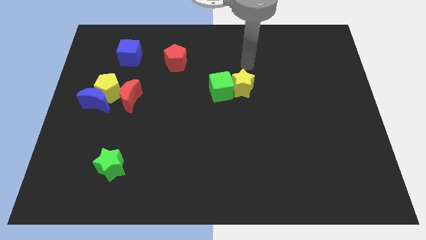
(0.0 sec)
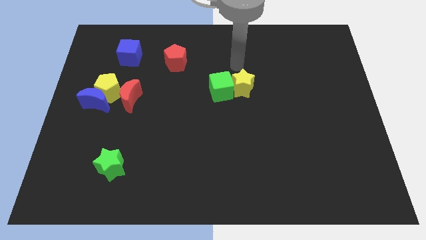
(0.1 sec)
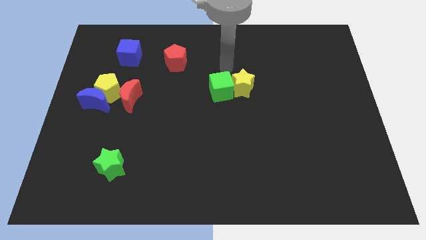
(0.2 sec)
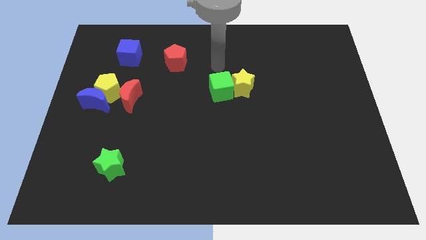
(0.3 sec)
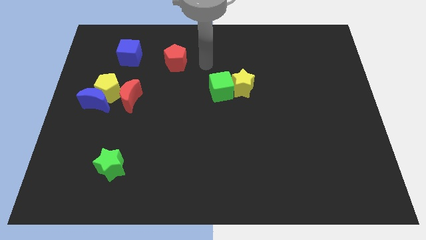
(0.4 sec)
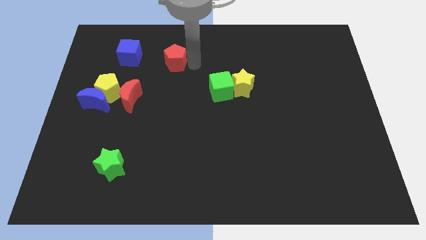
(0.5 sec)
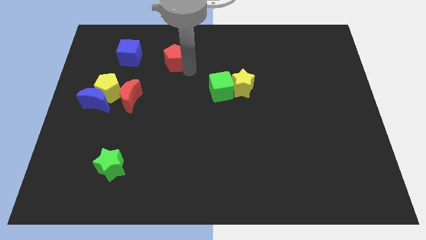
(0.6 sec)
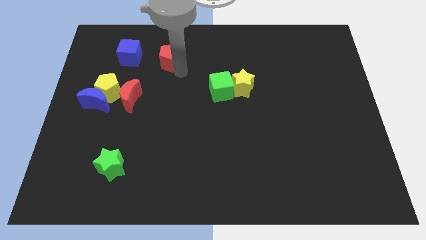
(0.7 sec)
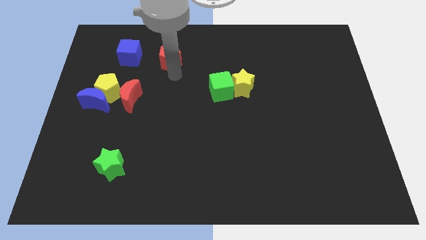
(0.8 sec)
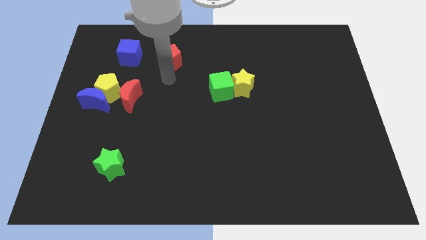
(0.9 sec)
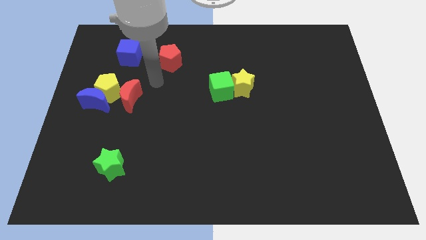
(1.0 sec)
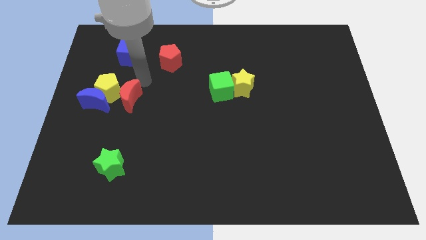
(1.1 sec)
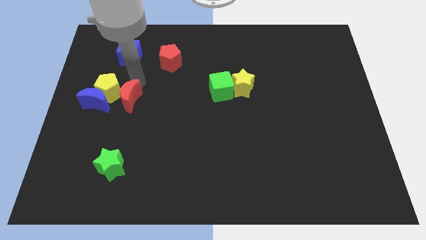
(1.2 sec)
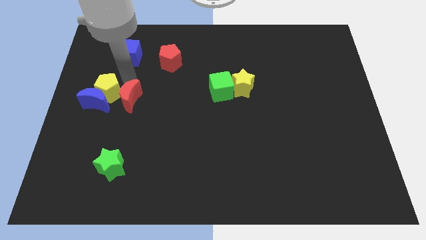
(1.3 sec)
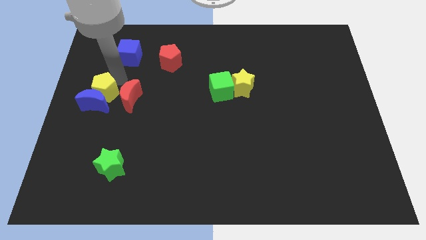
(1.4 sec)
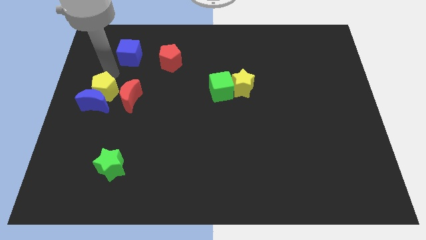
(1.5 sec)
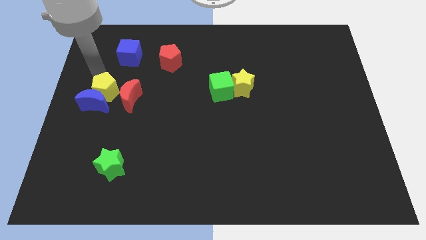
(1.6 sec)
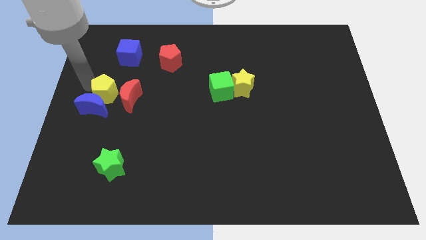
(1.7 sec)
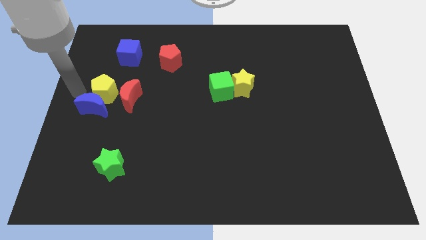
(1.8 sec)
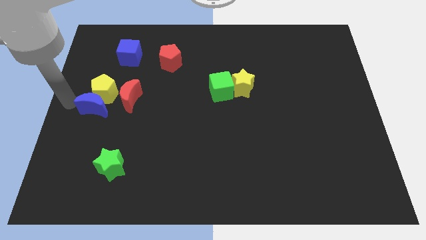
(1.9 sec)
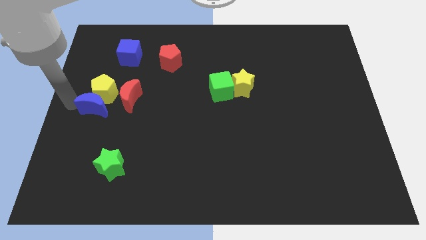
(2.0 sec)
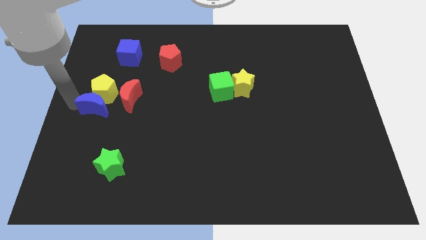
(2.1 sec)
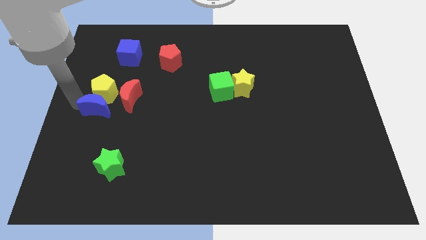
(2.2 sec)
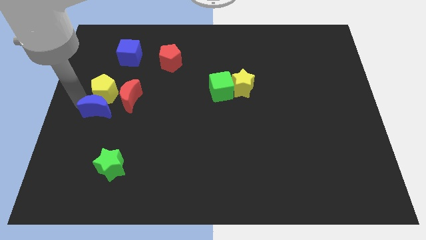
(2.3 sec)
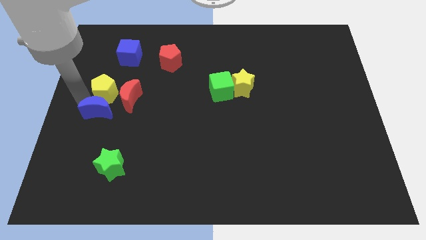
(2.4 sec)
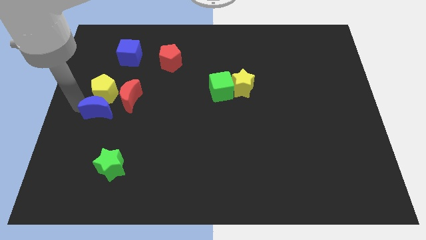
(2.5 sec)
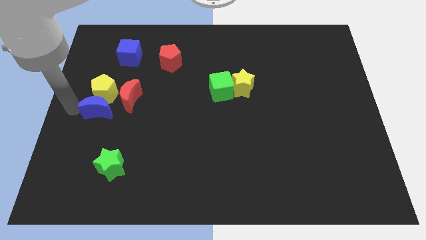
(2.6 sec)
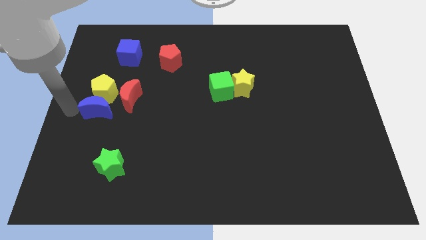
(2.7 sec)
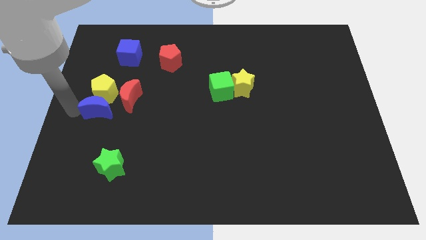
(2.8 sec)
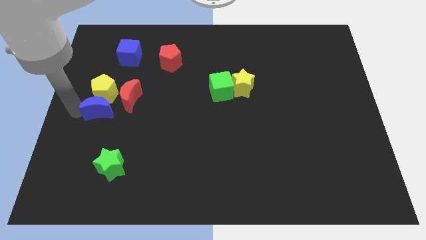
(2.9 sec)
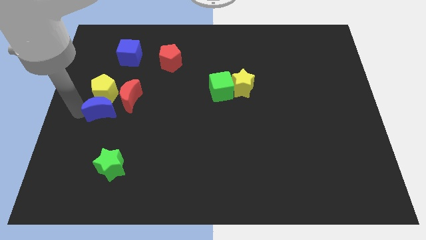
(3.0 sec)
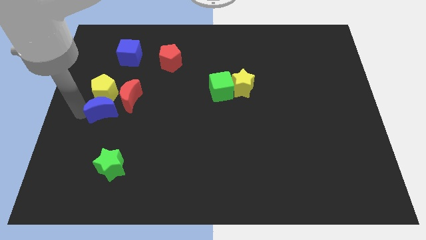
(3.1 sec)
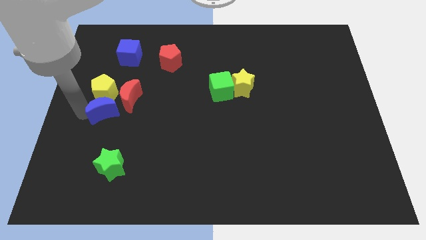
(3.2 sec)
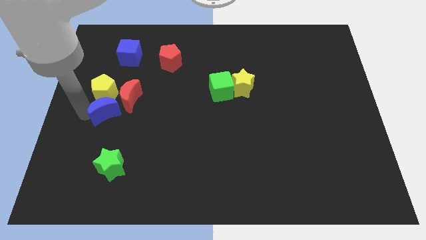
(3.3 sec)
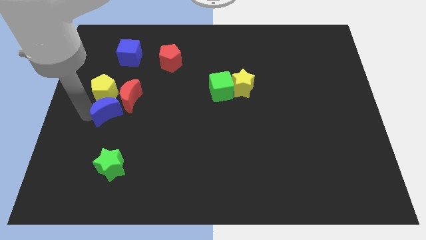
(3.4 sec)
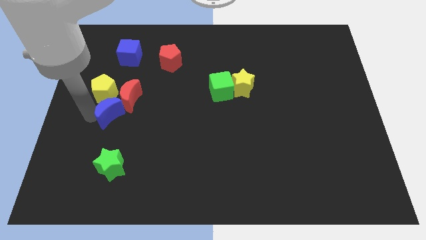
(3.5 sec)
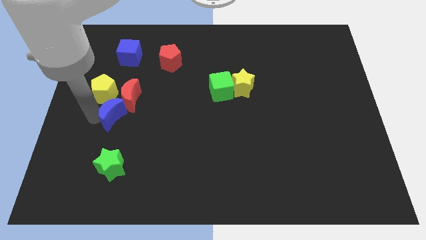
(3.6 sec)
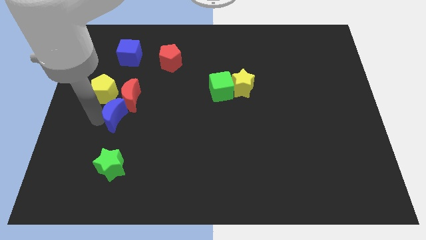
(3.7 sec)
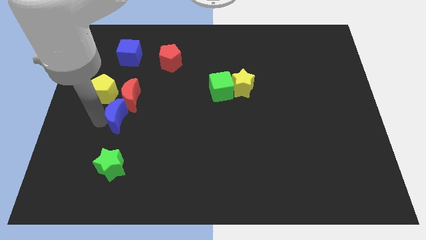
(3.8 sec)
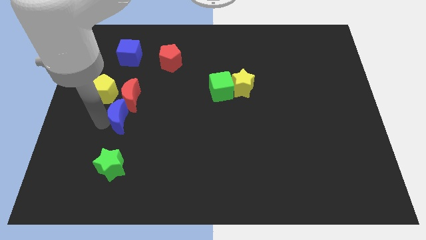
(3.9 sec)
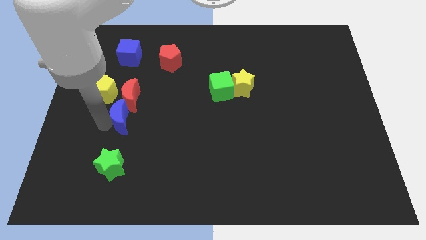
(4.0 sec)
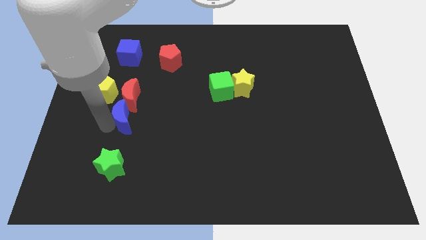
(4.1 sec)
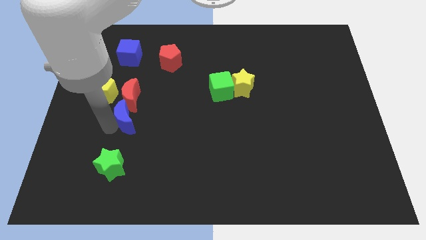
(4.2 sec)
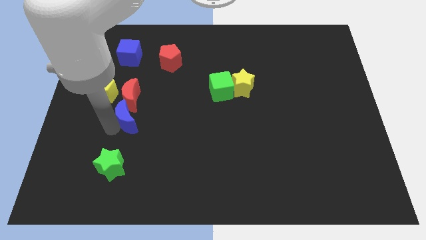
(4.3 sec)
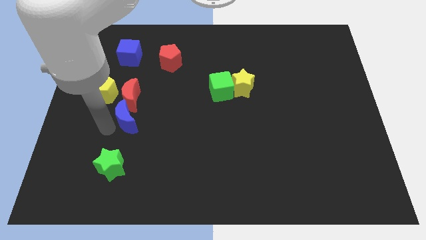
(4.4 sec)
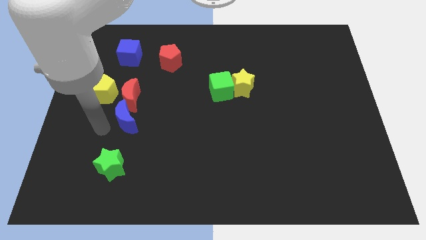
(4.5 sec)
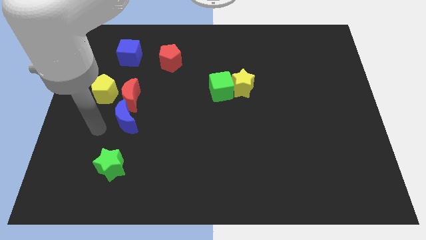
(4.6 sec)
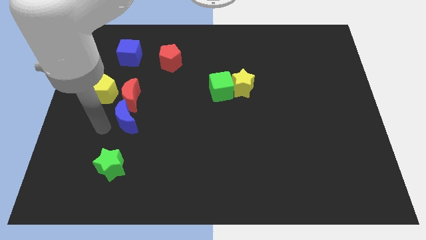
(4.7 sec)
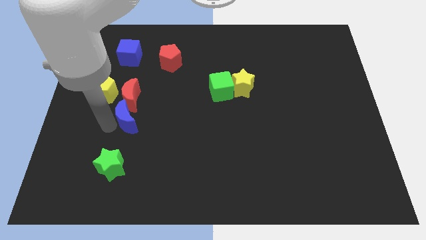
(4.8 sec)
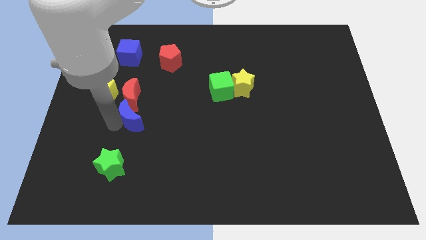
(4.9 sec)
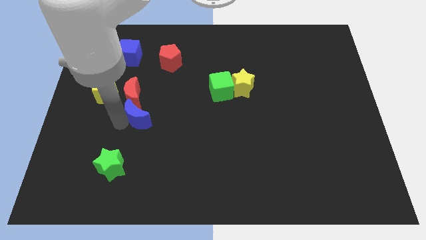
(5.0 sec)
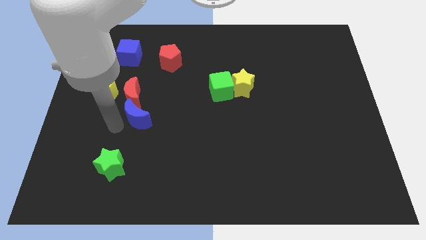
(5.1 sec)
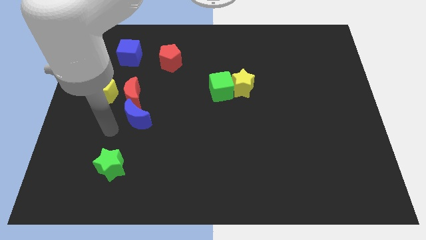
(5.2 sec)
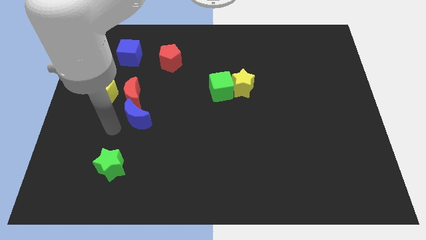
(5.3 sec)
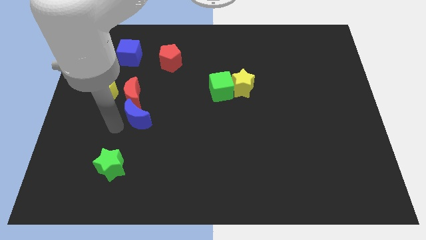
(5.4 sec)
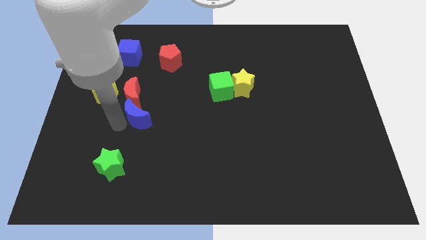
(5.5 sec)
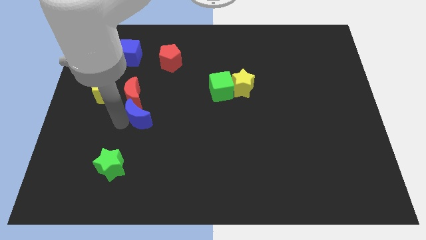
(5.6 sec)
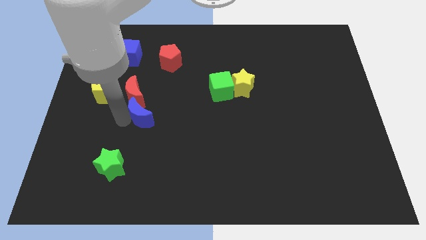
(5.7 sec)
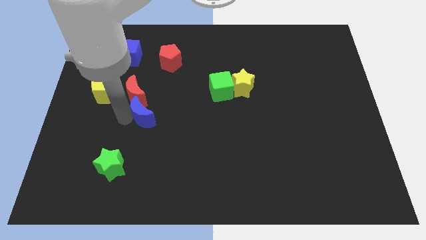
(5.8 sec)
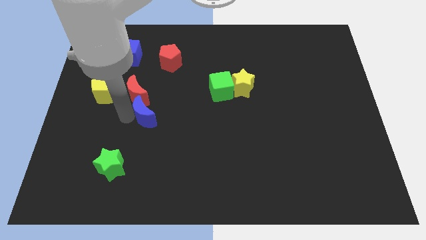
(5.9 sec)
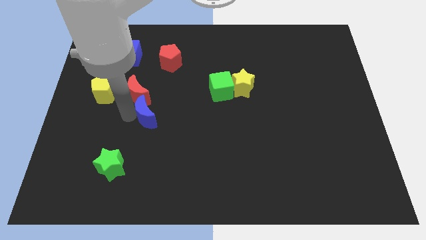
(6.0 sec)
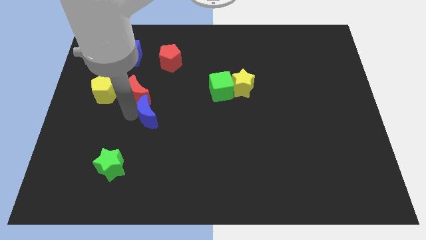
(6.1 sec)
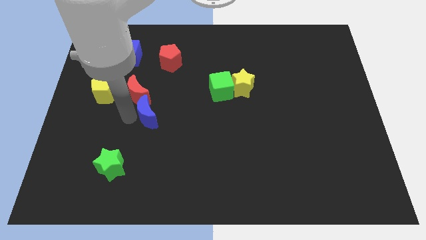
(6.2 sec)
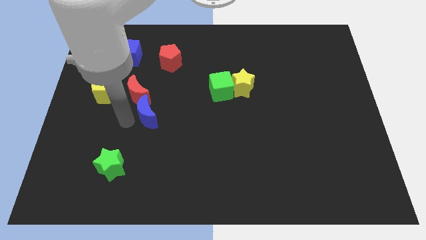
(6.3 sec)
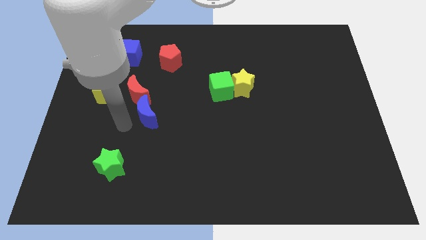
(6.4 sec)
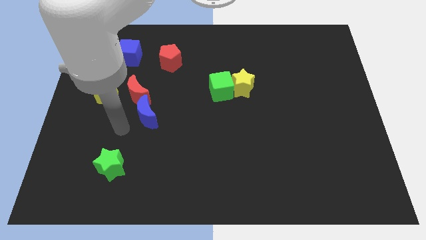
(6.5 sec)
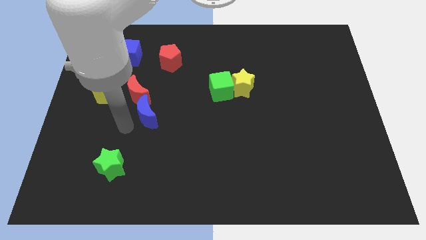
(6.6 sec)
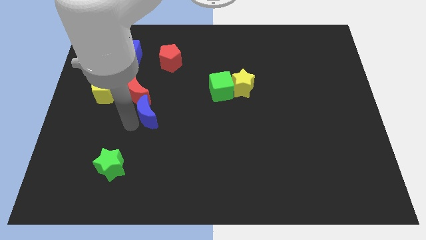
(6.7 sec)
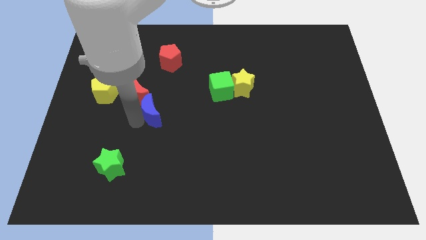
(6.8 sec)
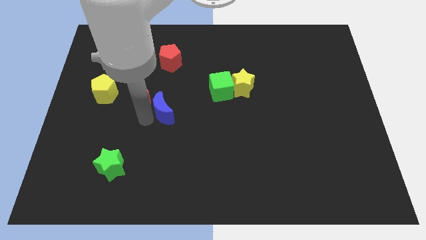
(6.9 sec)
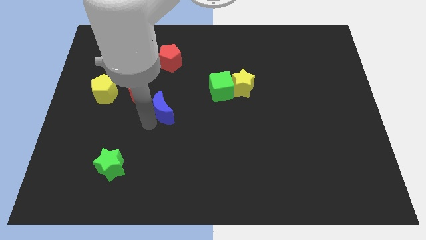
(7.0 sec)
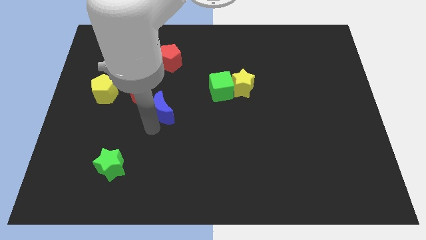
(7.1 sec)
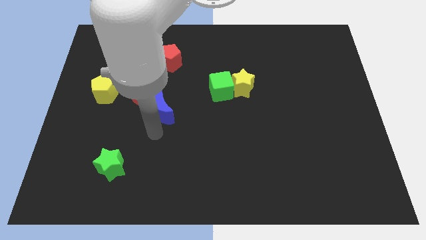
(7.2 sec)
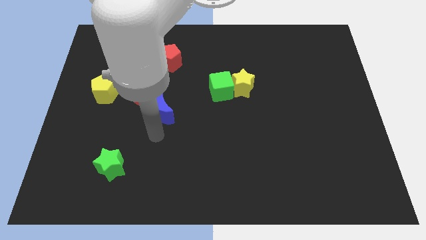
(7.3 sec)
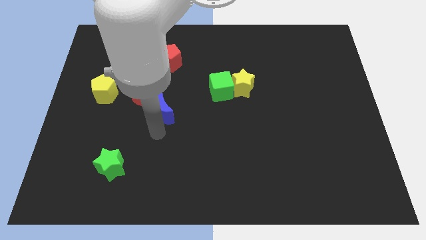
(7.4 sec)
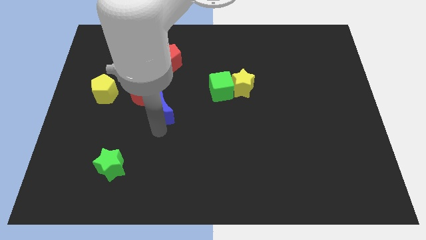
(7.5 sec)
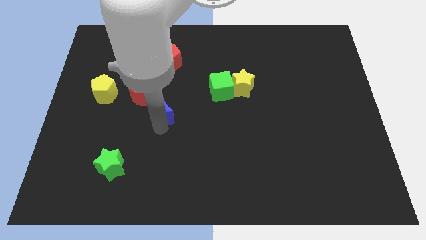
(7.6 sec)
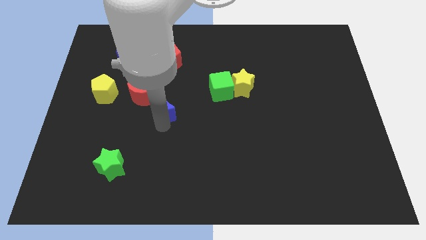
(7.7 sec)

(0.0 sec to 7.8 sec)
put the blue moon below the red pentagon

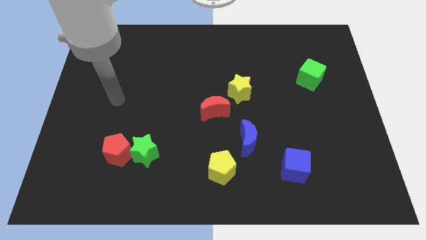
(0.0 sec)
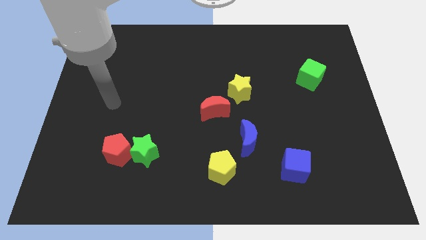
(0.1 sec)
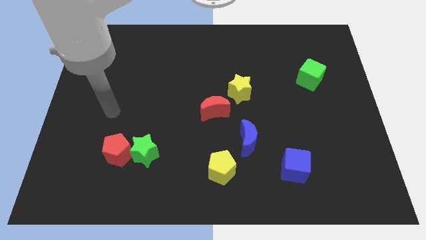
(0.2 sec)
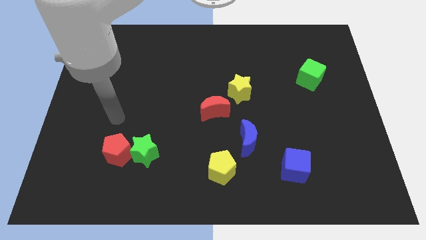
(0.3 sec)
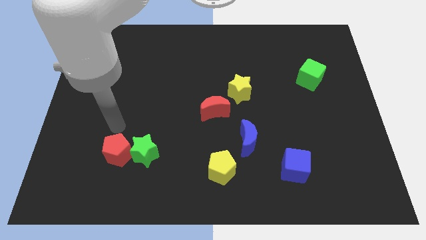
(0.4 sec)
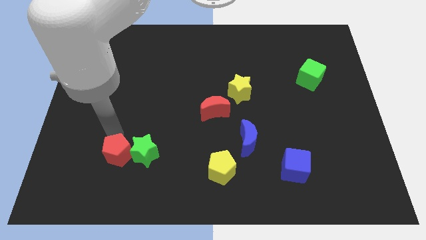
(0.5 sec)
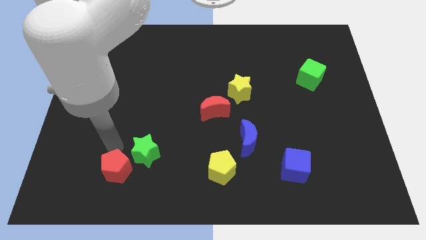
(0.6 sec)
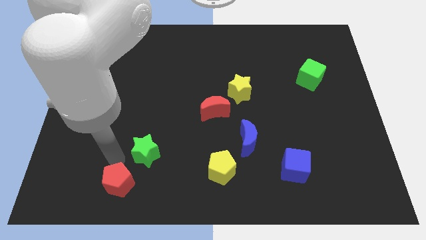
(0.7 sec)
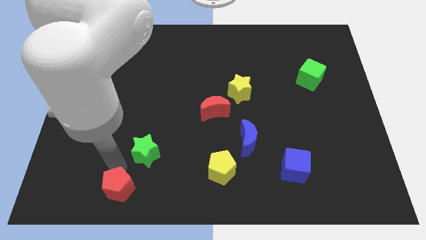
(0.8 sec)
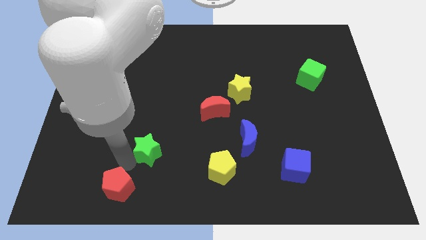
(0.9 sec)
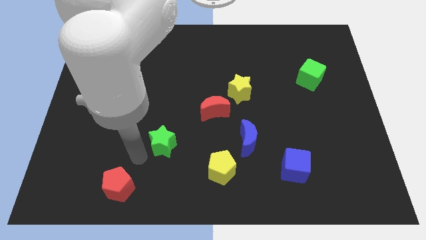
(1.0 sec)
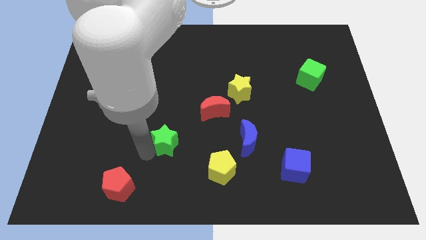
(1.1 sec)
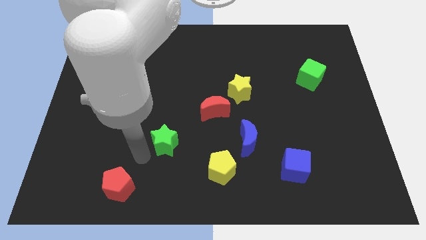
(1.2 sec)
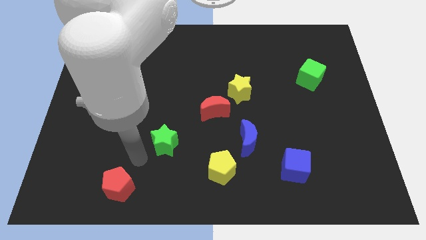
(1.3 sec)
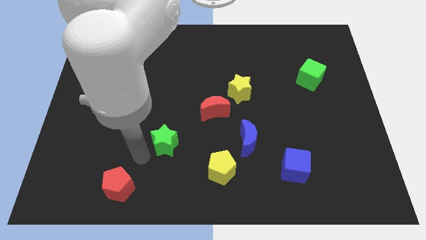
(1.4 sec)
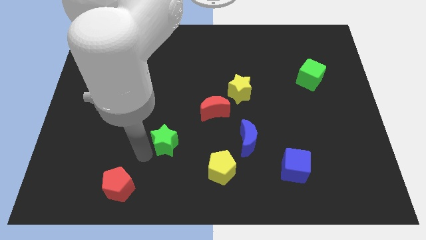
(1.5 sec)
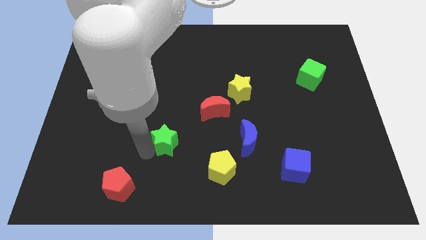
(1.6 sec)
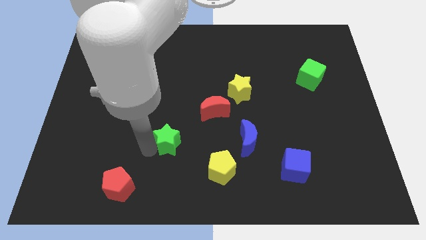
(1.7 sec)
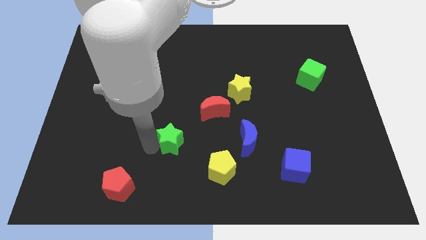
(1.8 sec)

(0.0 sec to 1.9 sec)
put the green star diagonally down and to the left of the red moon
